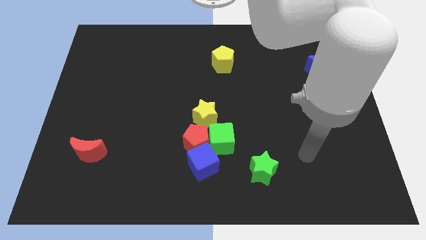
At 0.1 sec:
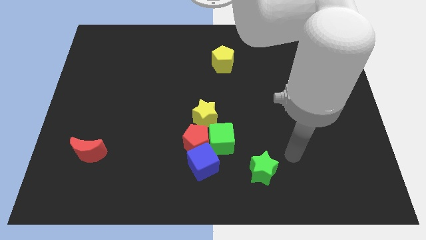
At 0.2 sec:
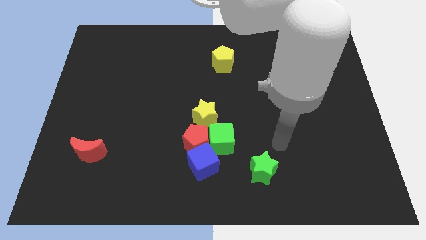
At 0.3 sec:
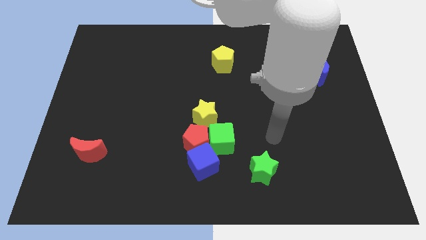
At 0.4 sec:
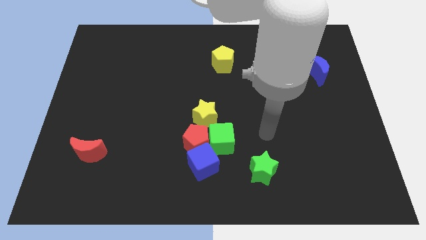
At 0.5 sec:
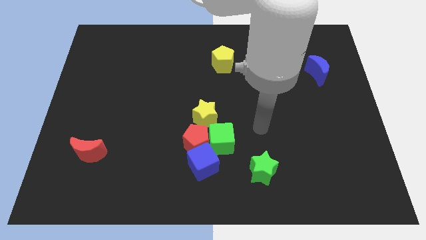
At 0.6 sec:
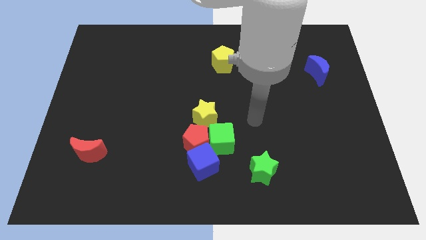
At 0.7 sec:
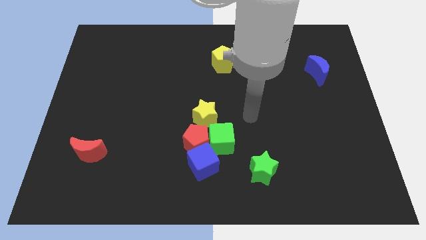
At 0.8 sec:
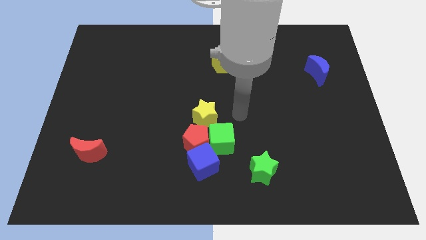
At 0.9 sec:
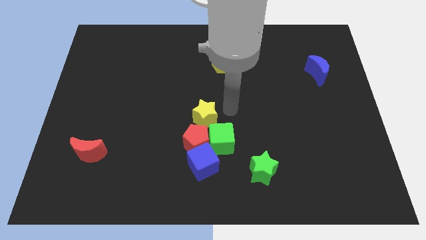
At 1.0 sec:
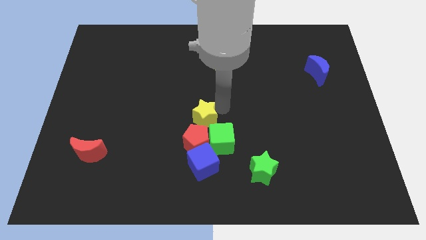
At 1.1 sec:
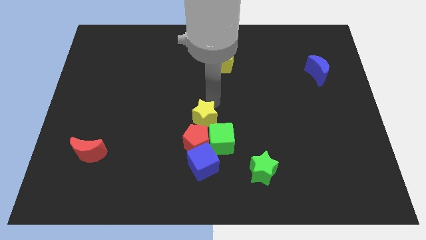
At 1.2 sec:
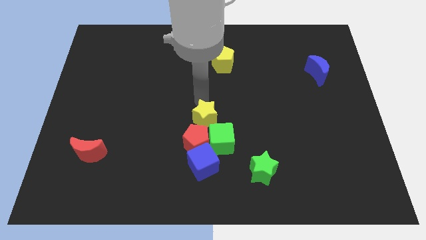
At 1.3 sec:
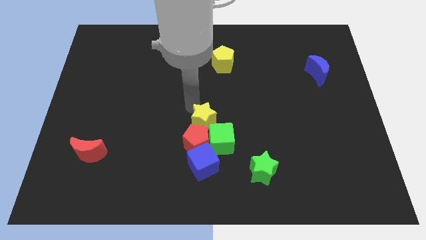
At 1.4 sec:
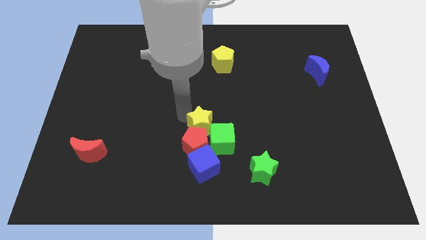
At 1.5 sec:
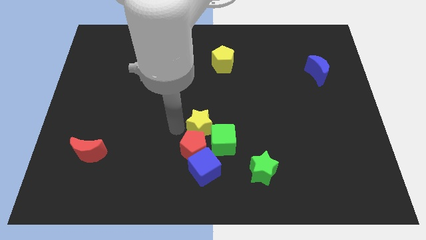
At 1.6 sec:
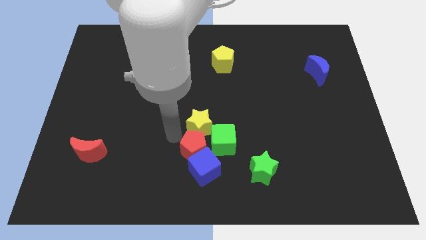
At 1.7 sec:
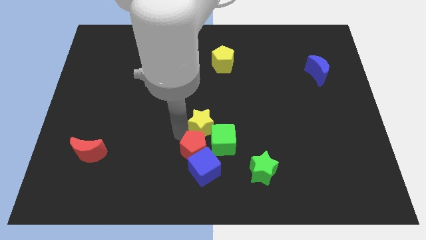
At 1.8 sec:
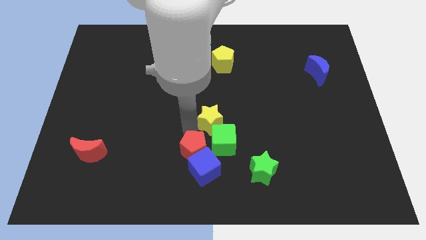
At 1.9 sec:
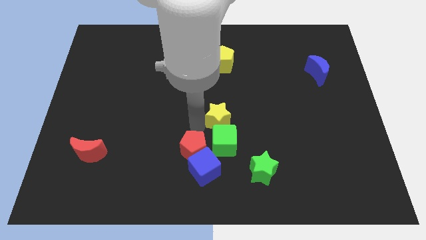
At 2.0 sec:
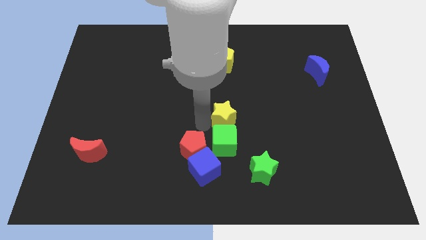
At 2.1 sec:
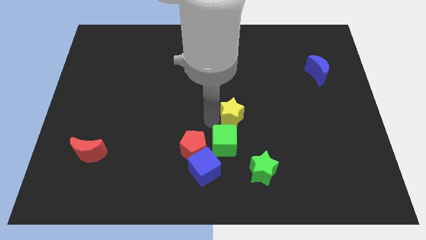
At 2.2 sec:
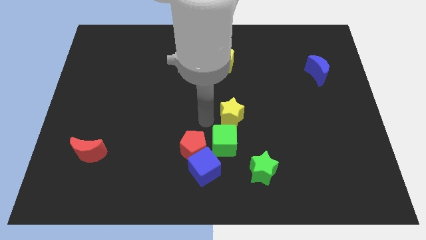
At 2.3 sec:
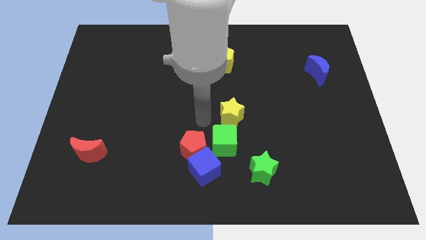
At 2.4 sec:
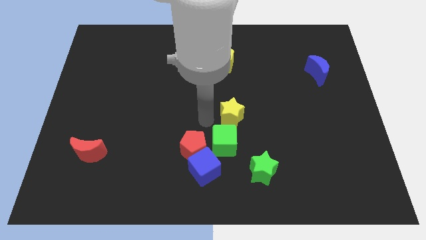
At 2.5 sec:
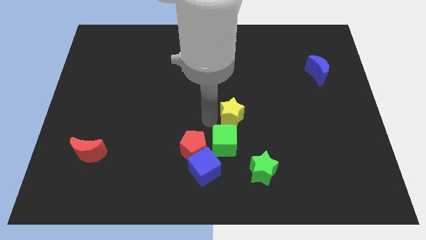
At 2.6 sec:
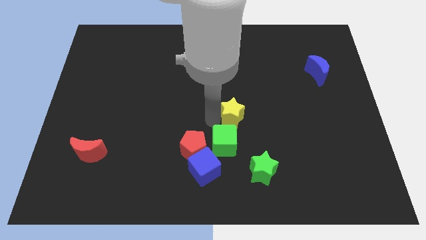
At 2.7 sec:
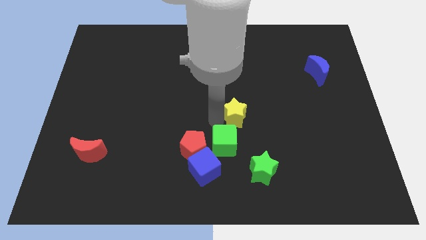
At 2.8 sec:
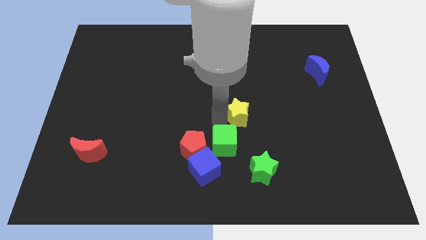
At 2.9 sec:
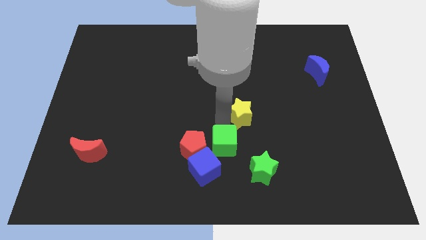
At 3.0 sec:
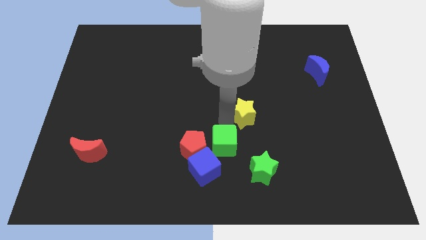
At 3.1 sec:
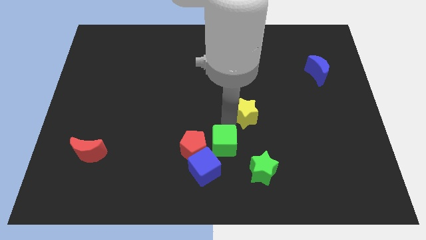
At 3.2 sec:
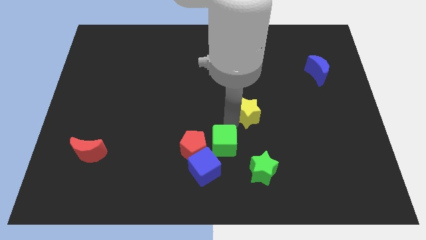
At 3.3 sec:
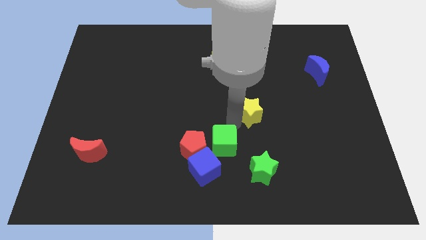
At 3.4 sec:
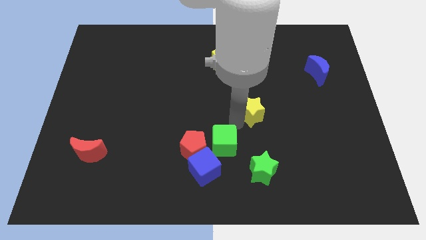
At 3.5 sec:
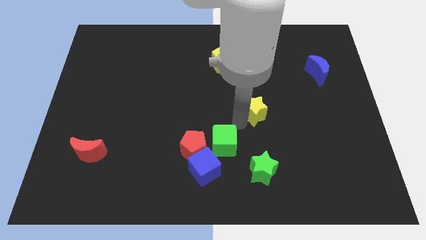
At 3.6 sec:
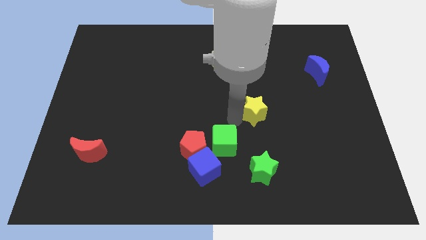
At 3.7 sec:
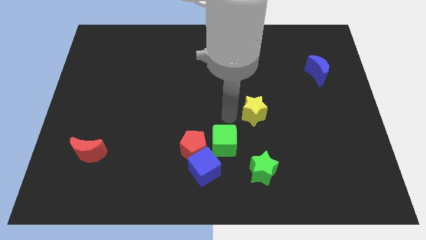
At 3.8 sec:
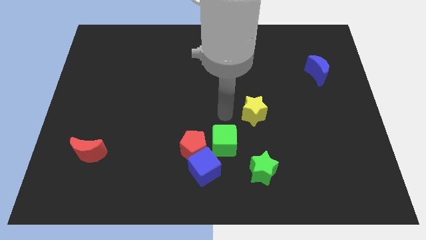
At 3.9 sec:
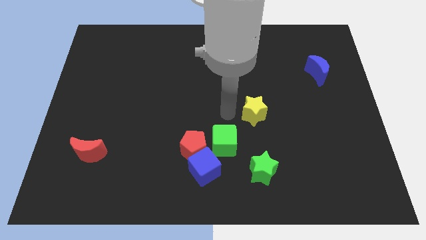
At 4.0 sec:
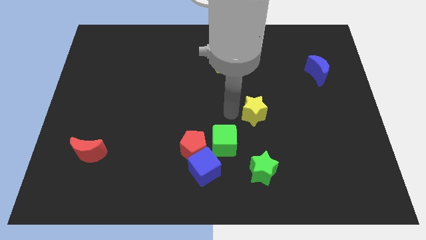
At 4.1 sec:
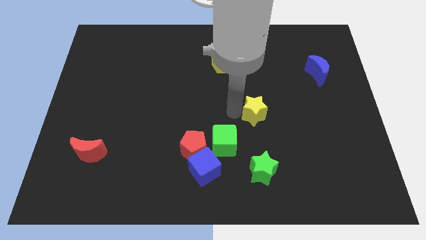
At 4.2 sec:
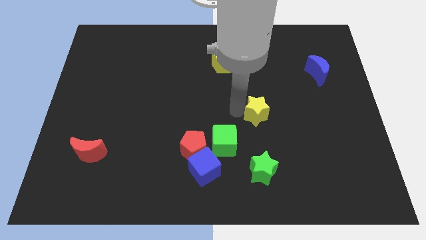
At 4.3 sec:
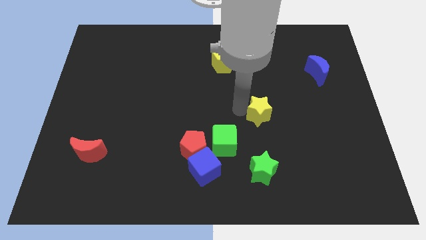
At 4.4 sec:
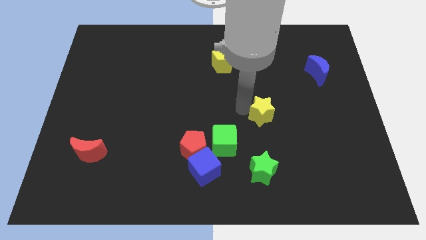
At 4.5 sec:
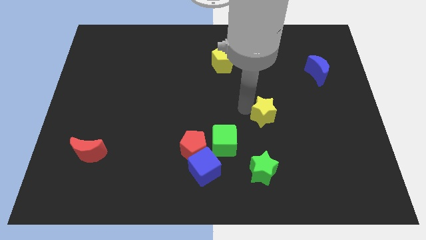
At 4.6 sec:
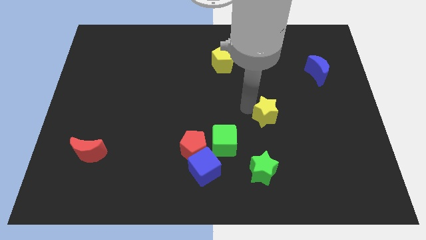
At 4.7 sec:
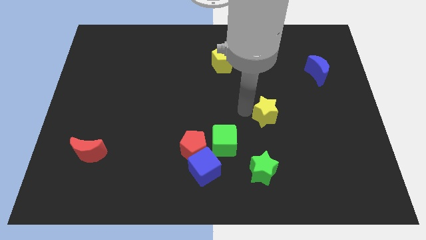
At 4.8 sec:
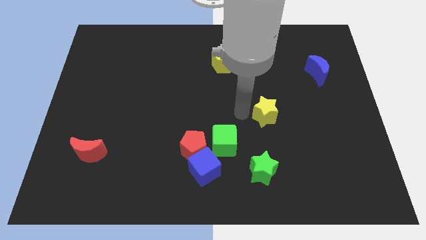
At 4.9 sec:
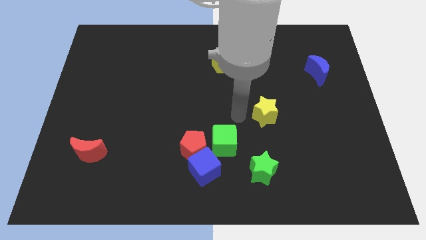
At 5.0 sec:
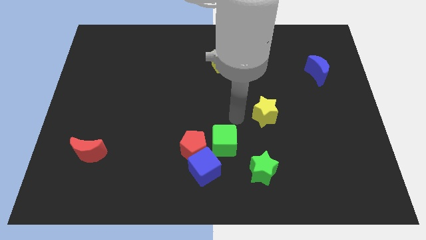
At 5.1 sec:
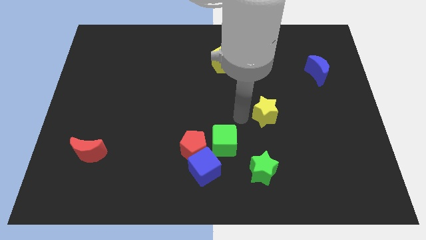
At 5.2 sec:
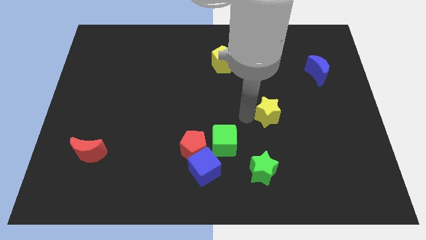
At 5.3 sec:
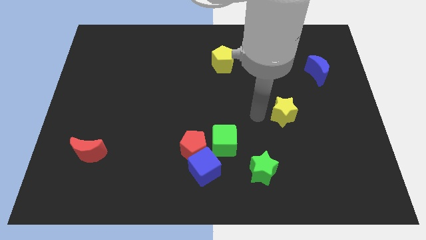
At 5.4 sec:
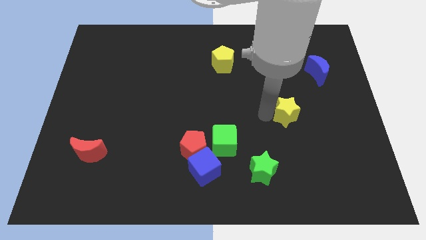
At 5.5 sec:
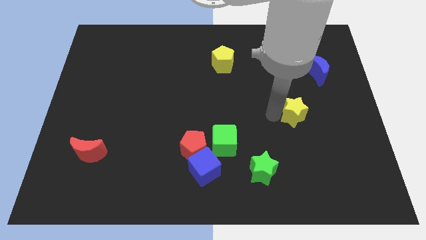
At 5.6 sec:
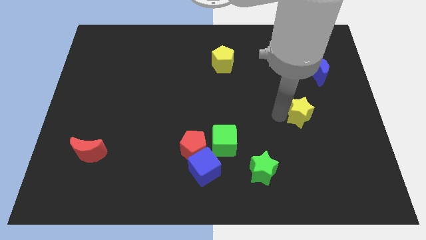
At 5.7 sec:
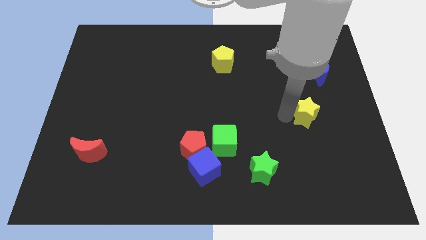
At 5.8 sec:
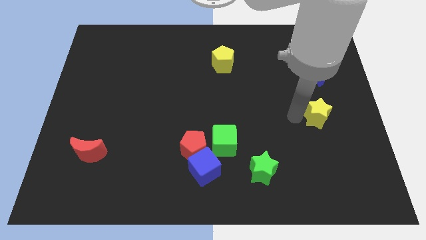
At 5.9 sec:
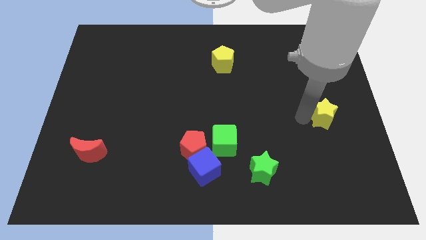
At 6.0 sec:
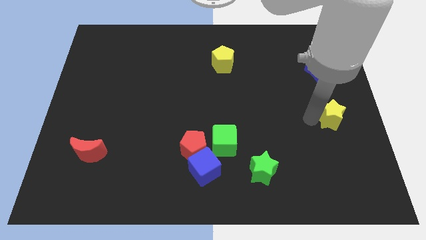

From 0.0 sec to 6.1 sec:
move the yellow star to the right side

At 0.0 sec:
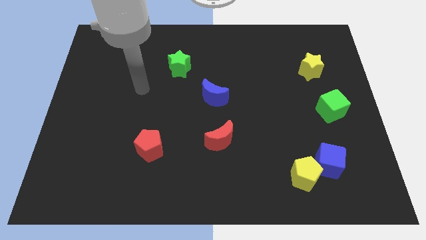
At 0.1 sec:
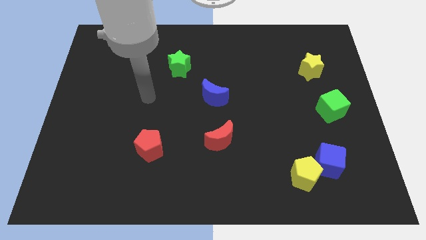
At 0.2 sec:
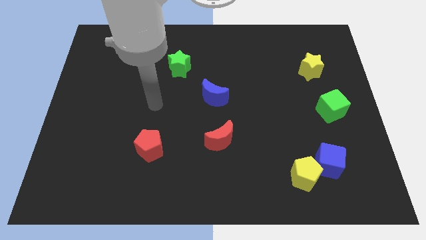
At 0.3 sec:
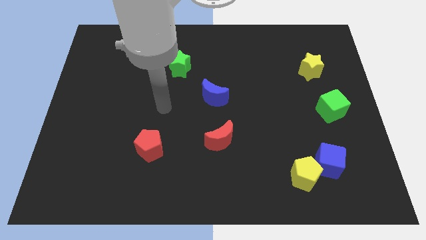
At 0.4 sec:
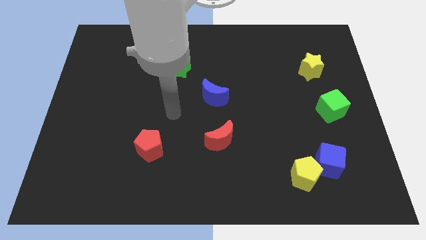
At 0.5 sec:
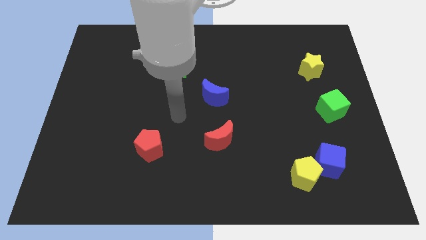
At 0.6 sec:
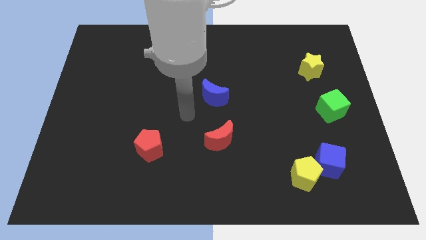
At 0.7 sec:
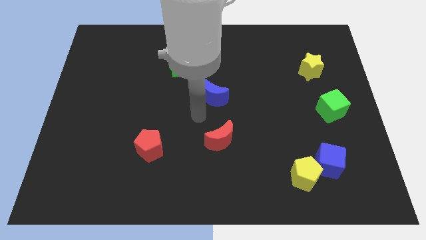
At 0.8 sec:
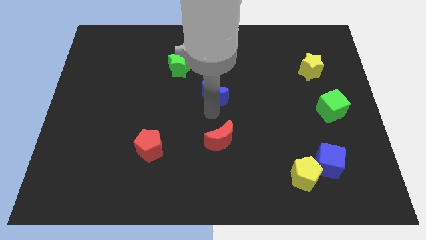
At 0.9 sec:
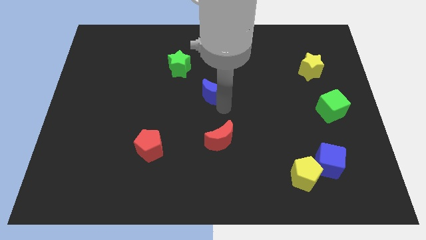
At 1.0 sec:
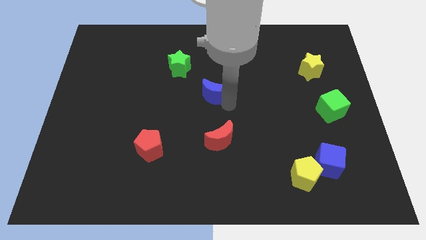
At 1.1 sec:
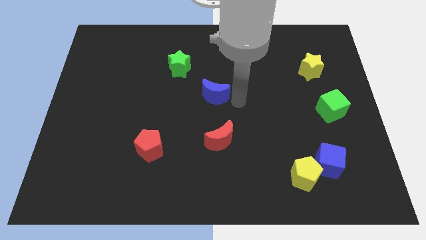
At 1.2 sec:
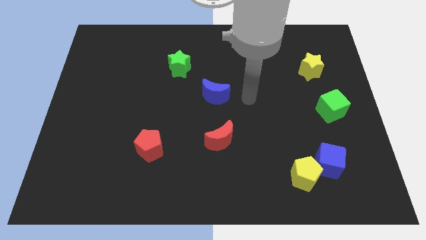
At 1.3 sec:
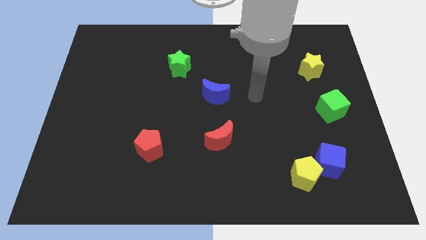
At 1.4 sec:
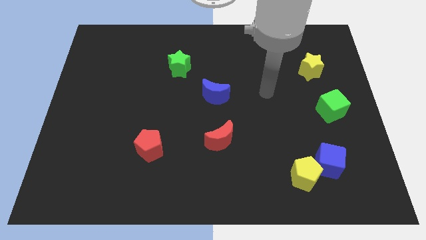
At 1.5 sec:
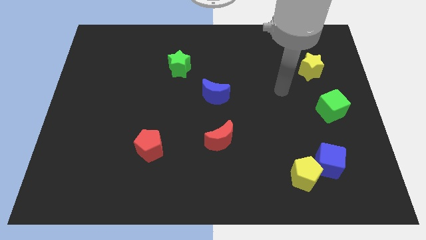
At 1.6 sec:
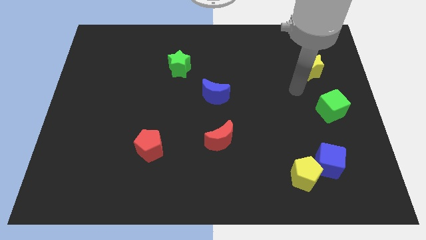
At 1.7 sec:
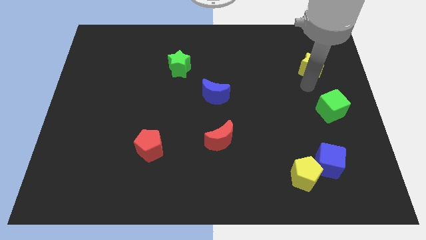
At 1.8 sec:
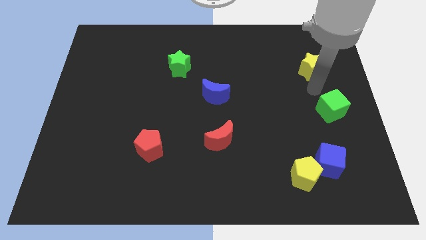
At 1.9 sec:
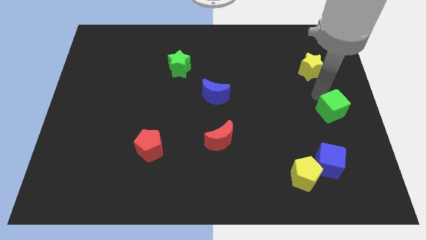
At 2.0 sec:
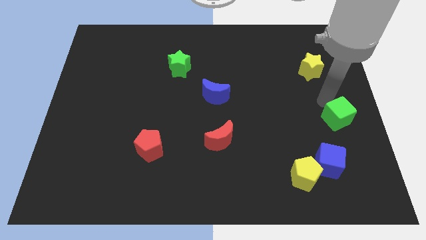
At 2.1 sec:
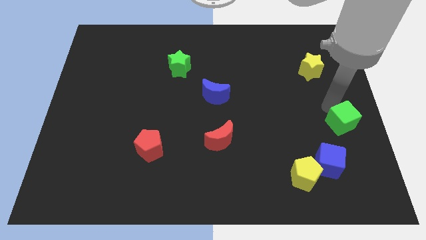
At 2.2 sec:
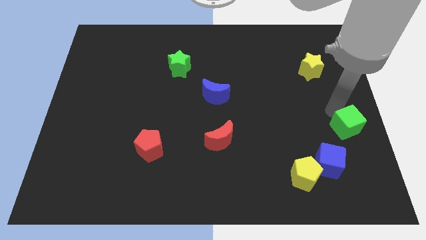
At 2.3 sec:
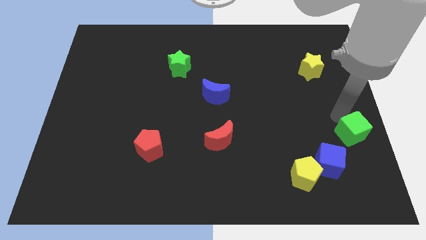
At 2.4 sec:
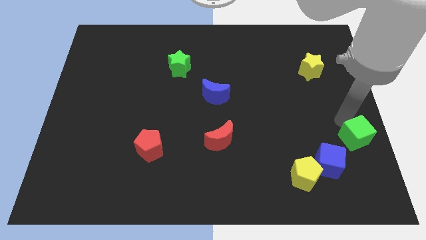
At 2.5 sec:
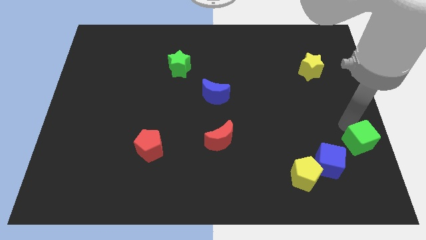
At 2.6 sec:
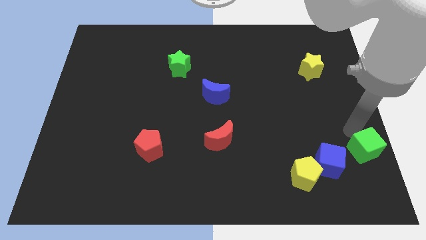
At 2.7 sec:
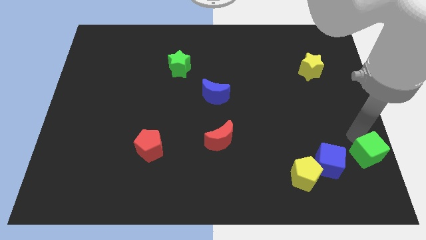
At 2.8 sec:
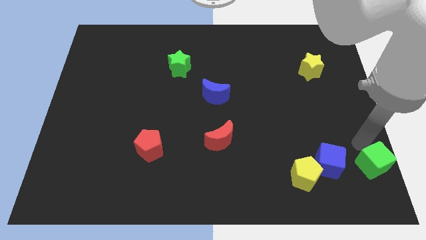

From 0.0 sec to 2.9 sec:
move the green cube to the bottom right
